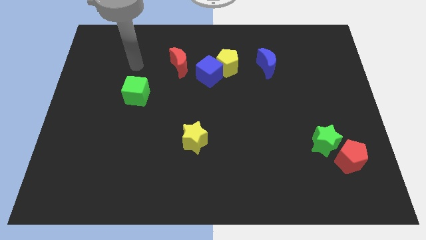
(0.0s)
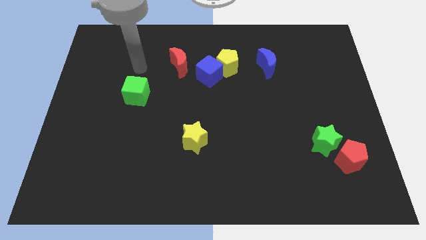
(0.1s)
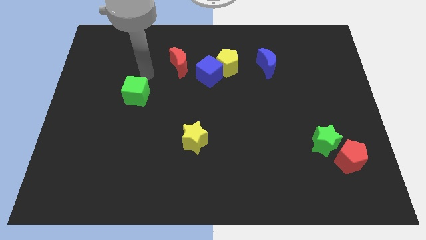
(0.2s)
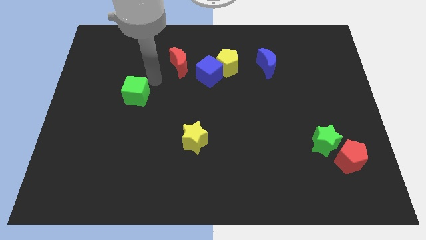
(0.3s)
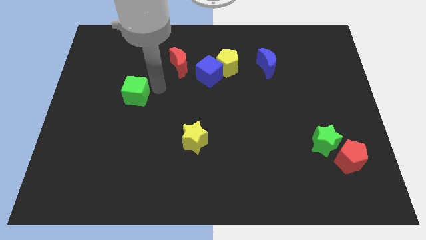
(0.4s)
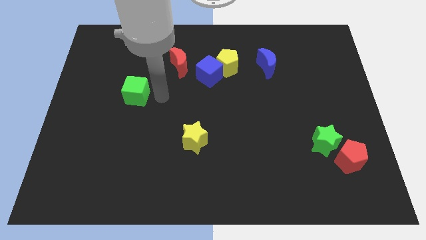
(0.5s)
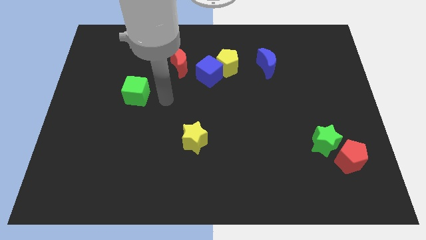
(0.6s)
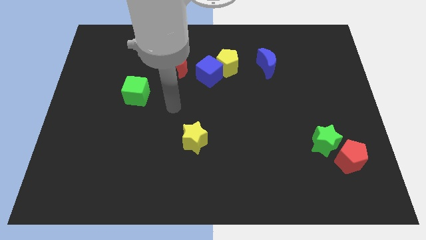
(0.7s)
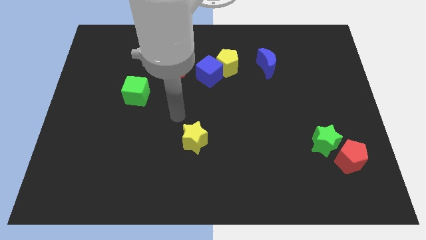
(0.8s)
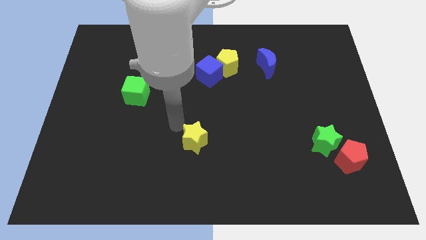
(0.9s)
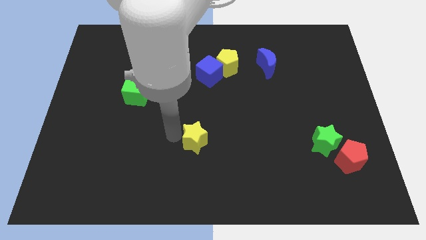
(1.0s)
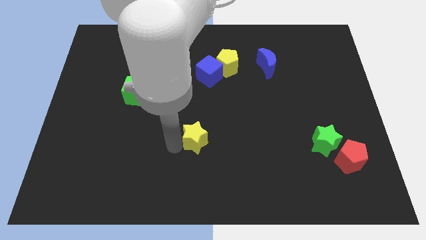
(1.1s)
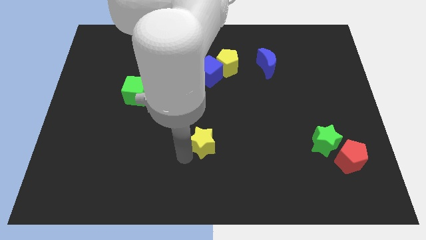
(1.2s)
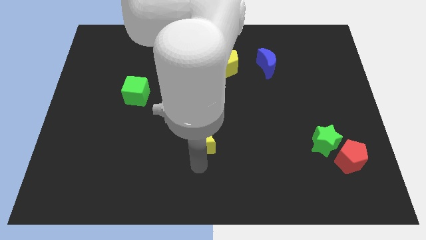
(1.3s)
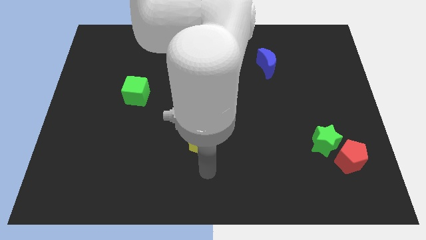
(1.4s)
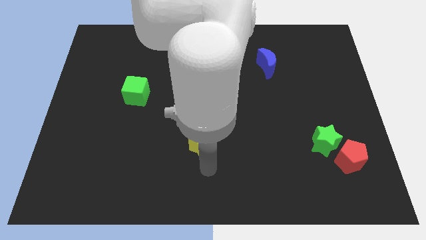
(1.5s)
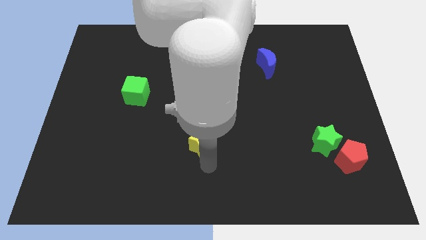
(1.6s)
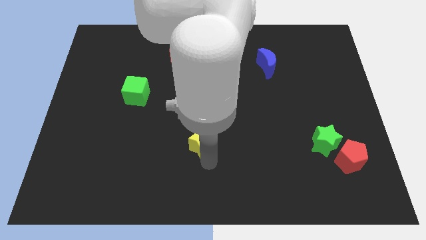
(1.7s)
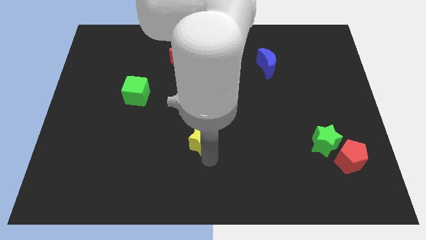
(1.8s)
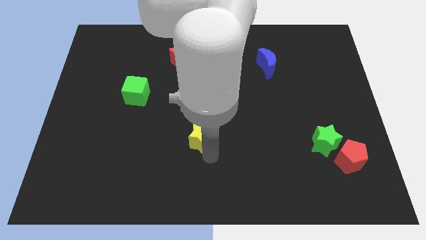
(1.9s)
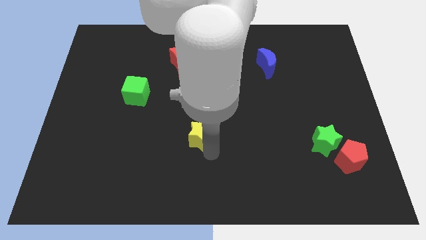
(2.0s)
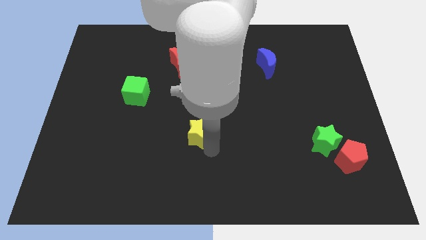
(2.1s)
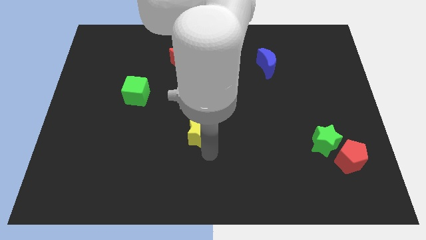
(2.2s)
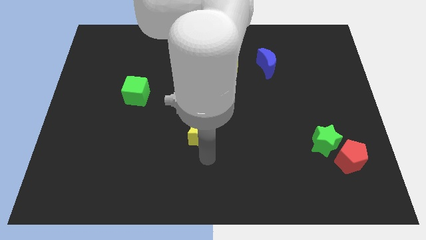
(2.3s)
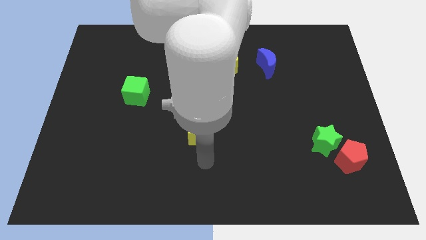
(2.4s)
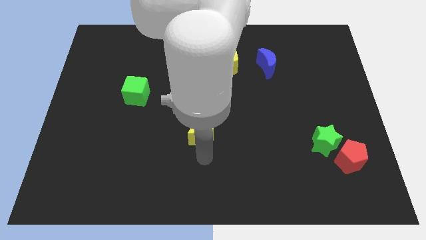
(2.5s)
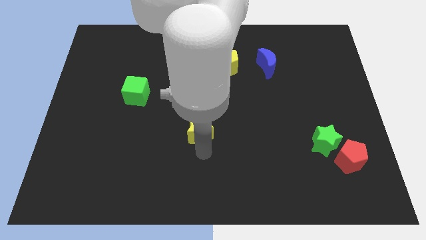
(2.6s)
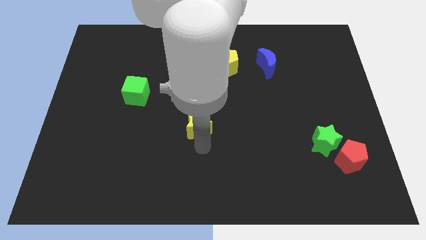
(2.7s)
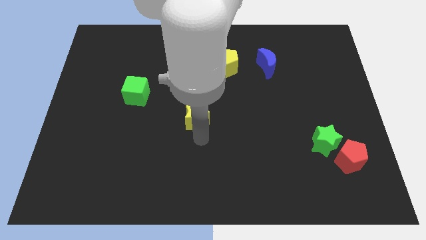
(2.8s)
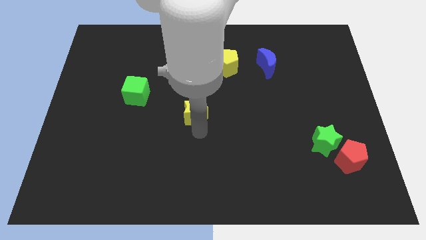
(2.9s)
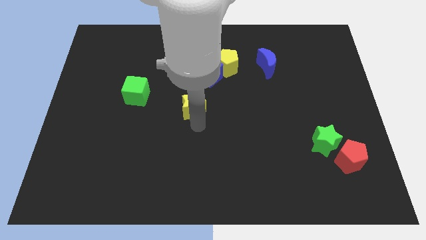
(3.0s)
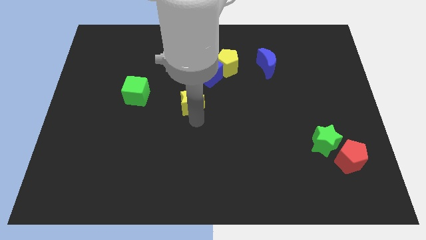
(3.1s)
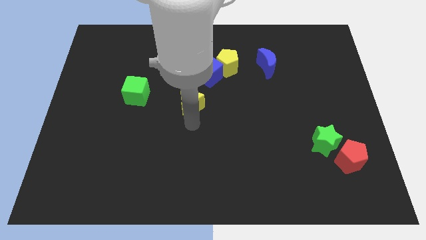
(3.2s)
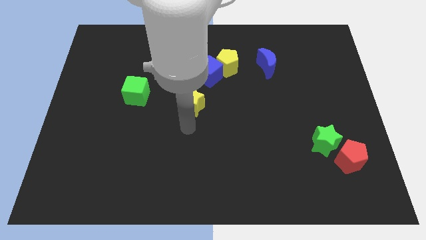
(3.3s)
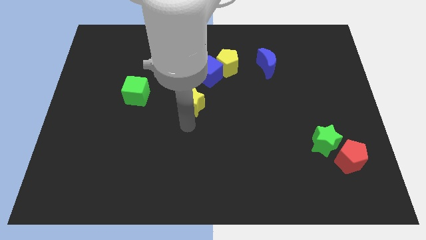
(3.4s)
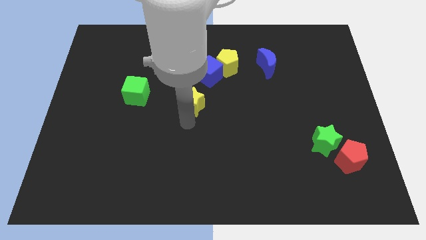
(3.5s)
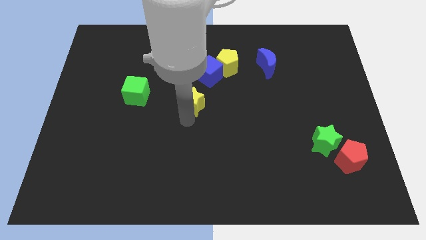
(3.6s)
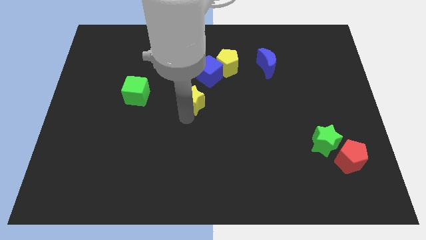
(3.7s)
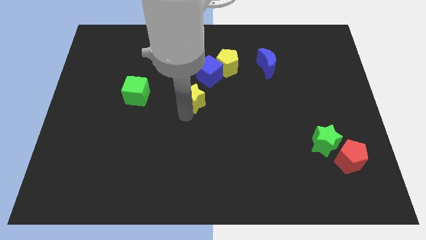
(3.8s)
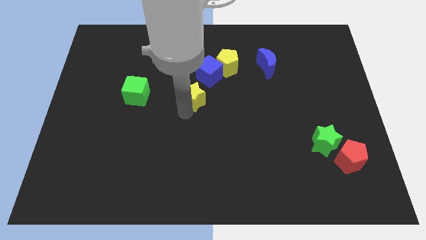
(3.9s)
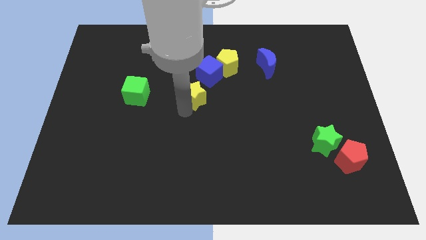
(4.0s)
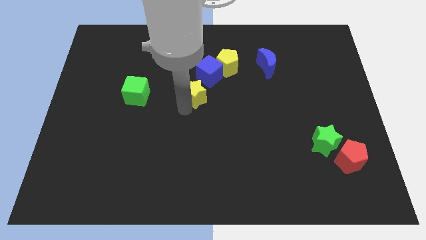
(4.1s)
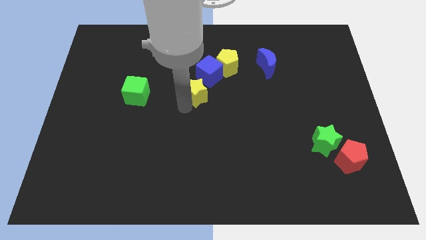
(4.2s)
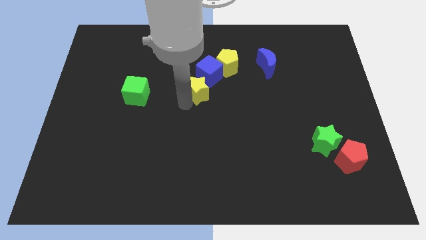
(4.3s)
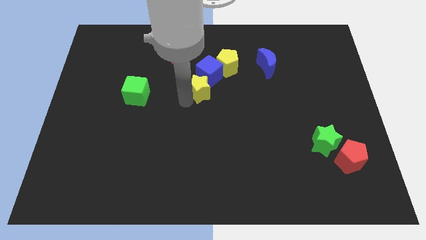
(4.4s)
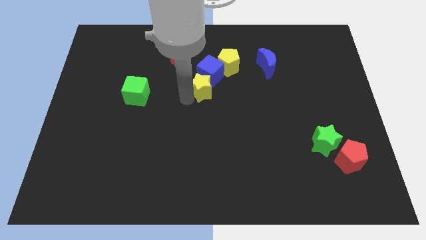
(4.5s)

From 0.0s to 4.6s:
put the yellow star towards the blue cube

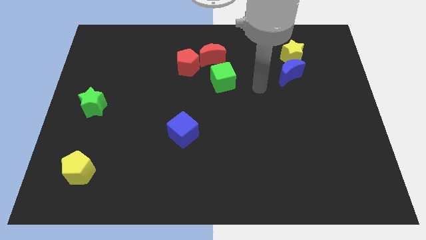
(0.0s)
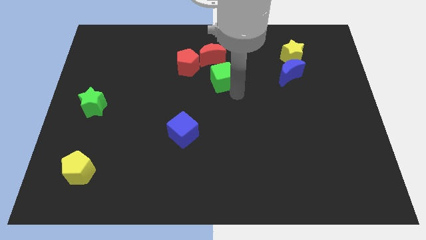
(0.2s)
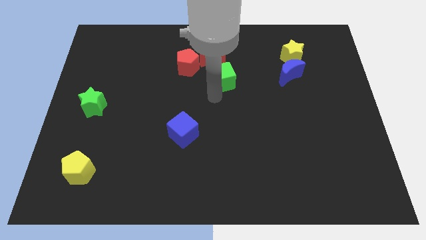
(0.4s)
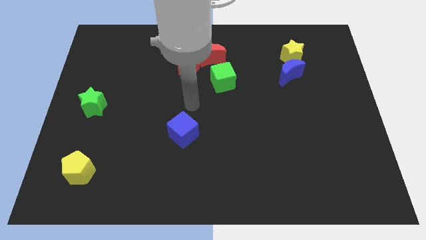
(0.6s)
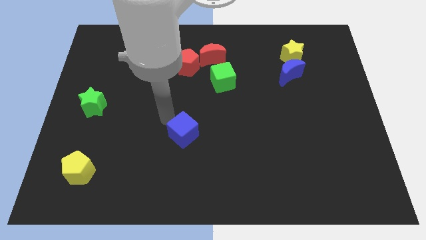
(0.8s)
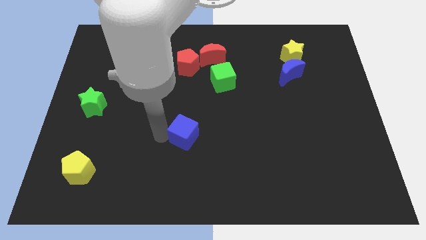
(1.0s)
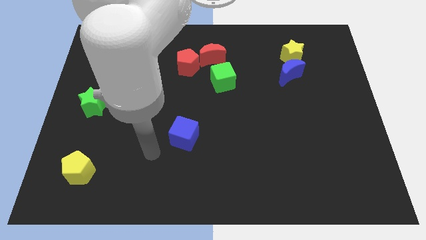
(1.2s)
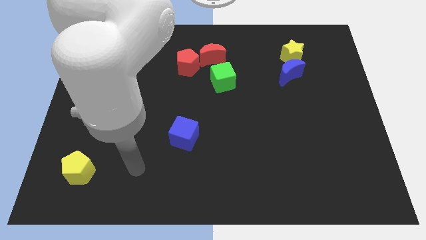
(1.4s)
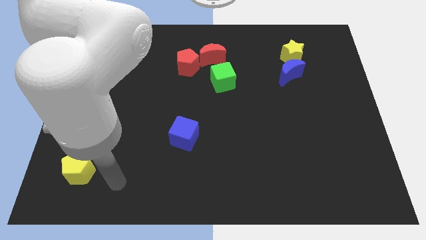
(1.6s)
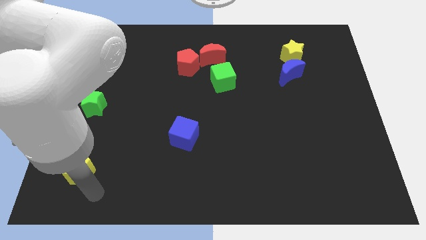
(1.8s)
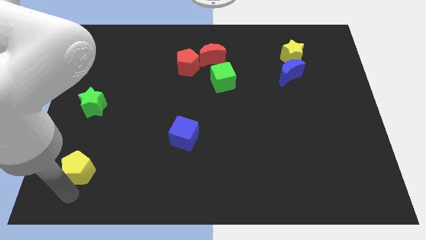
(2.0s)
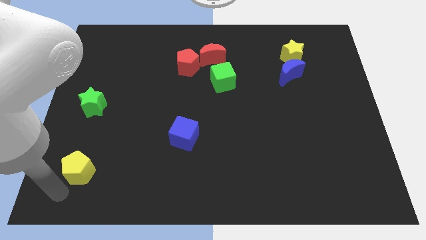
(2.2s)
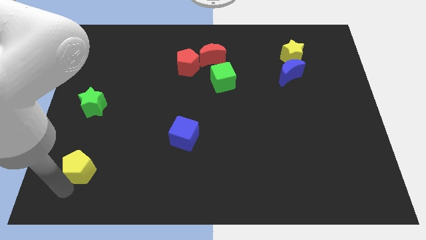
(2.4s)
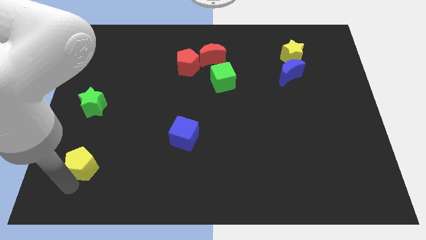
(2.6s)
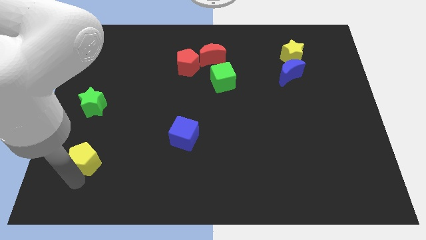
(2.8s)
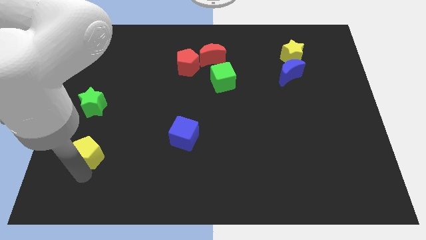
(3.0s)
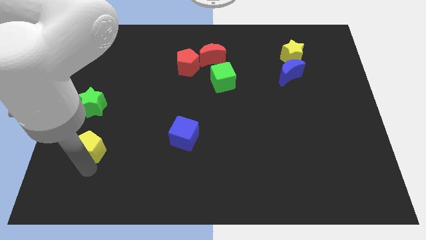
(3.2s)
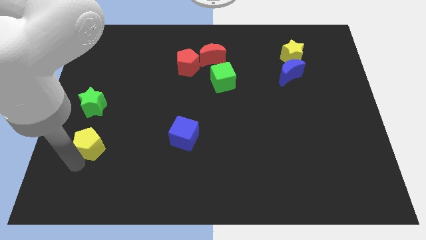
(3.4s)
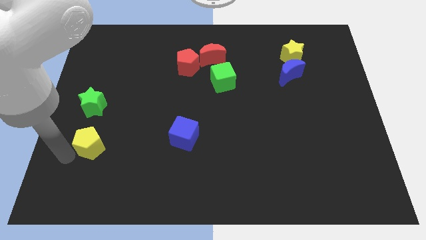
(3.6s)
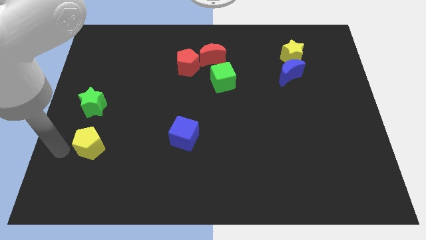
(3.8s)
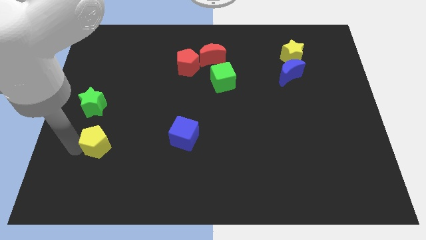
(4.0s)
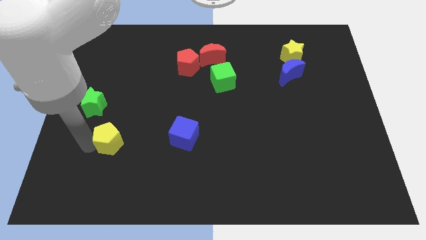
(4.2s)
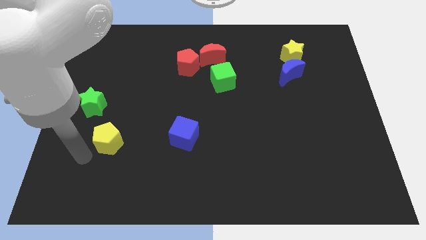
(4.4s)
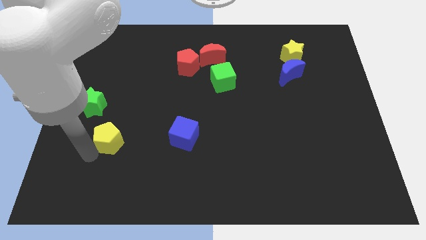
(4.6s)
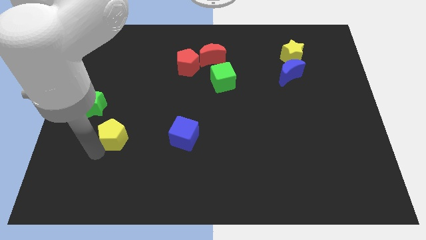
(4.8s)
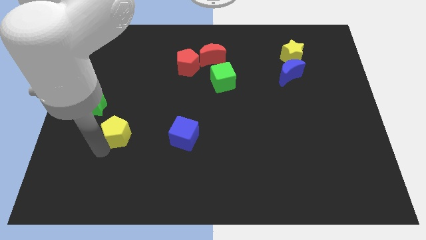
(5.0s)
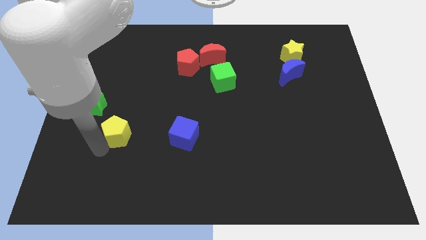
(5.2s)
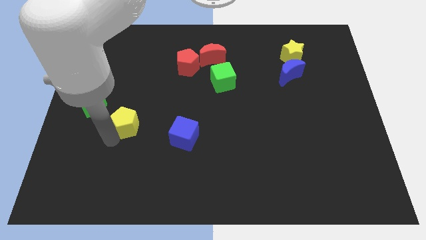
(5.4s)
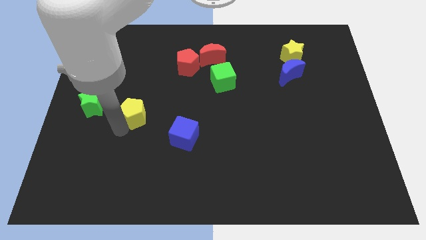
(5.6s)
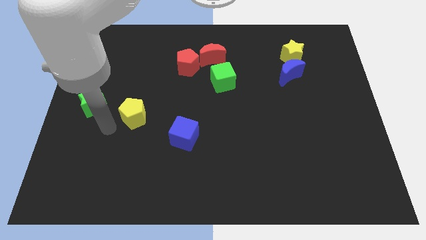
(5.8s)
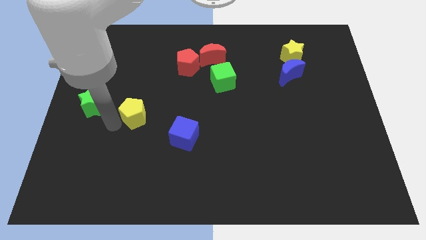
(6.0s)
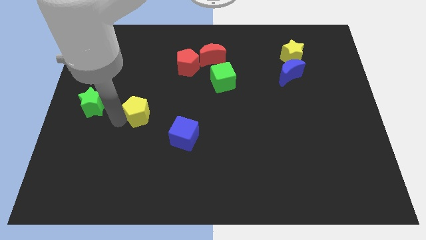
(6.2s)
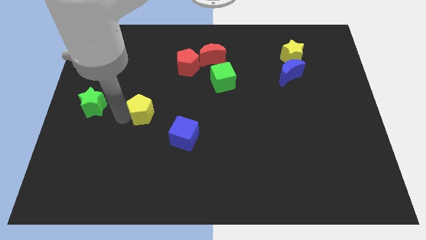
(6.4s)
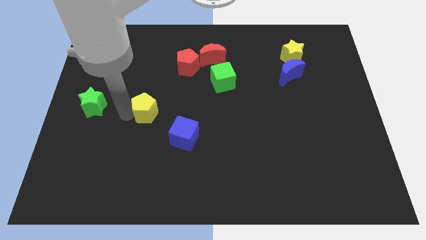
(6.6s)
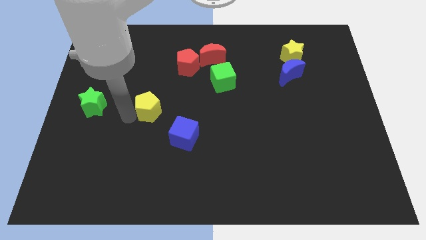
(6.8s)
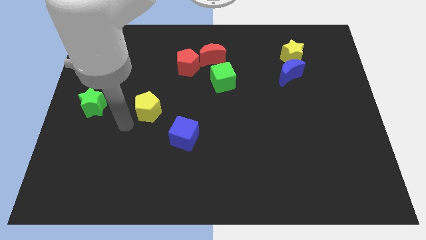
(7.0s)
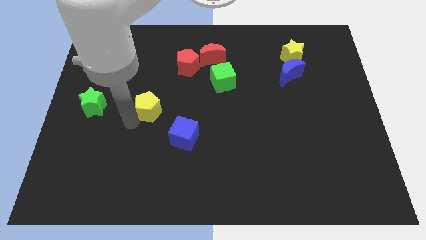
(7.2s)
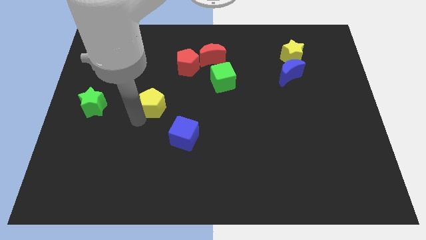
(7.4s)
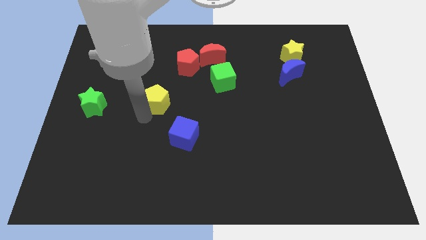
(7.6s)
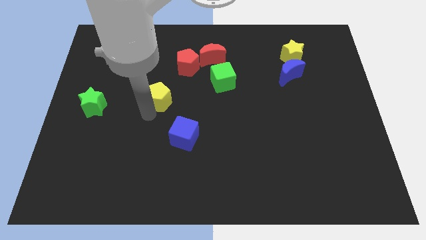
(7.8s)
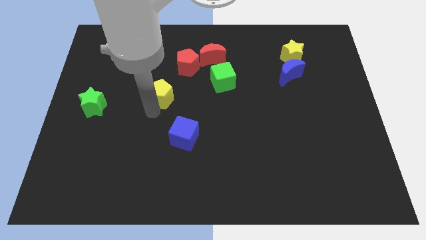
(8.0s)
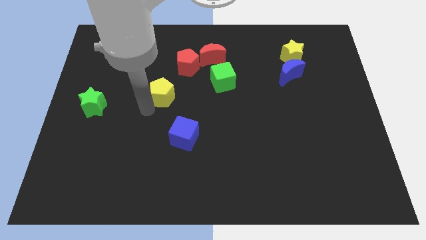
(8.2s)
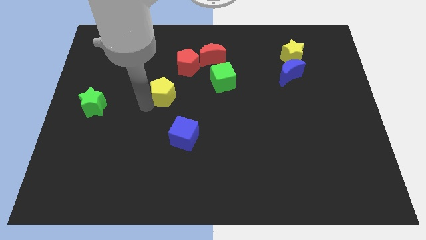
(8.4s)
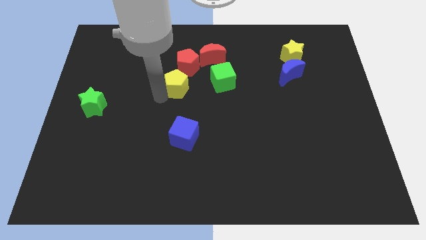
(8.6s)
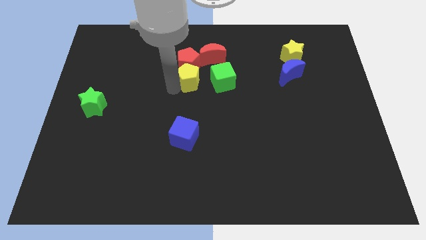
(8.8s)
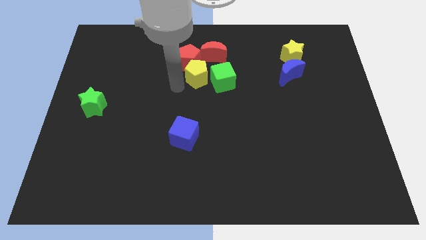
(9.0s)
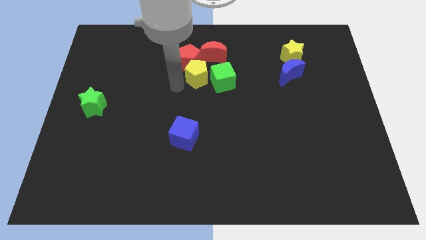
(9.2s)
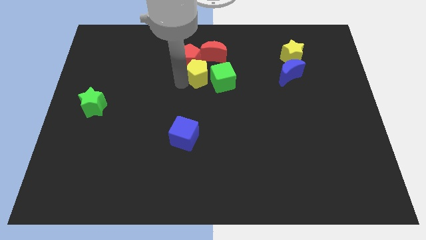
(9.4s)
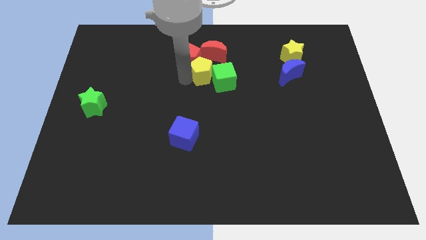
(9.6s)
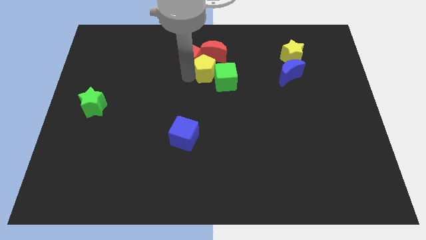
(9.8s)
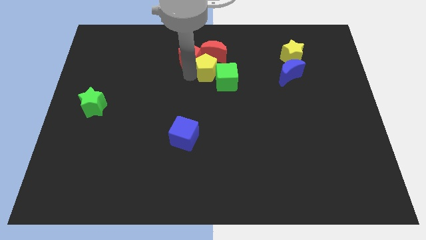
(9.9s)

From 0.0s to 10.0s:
push the yellow pentagon to the red moon
